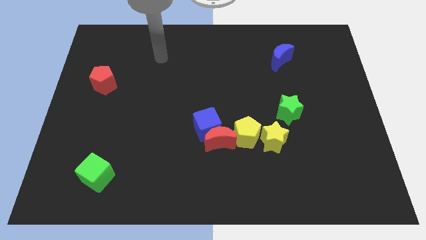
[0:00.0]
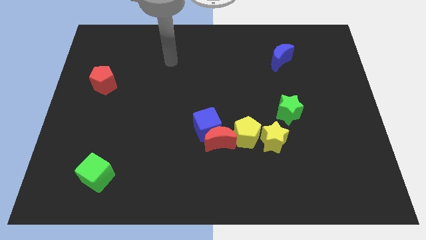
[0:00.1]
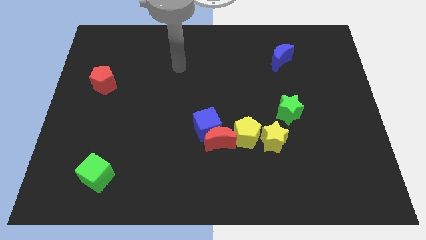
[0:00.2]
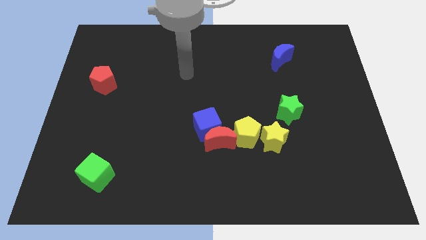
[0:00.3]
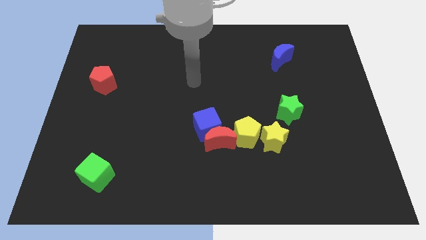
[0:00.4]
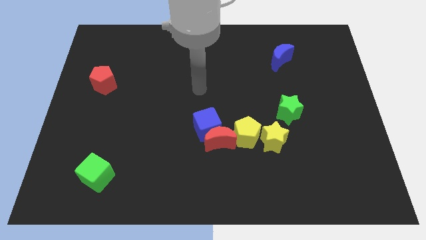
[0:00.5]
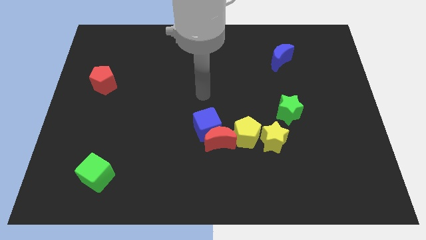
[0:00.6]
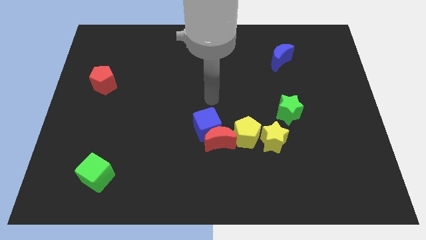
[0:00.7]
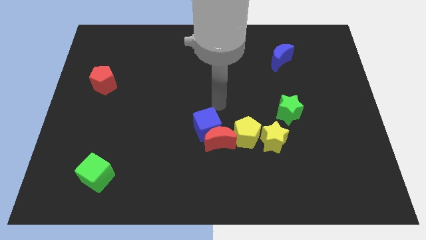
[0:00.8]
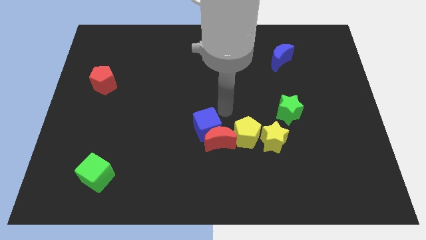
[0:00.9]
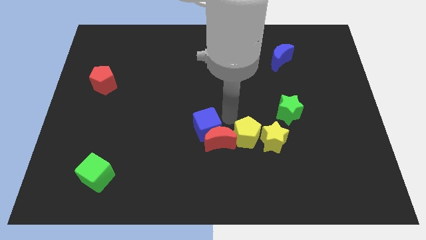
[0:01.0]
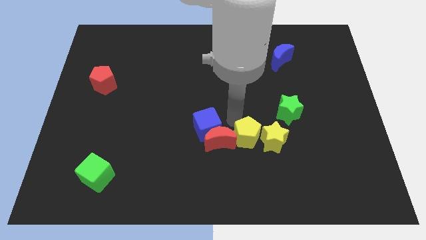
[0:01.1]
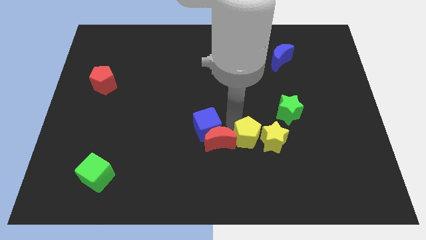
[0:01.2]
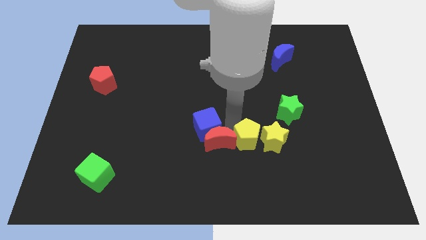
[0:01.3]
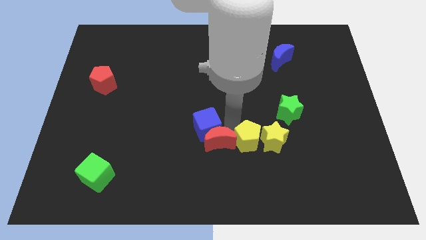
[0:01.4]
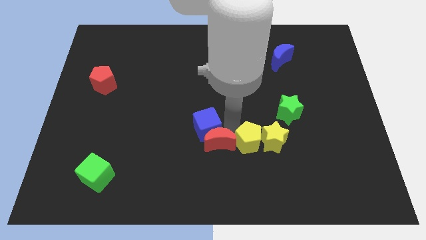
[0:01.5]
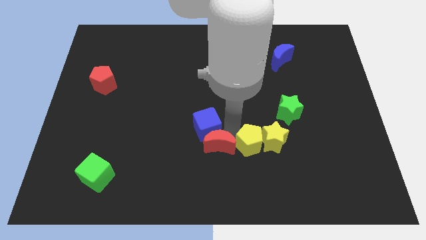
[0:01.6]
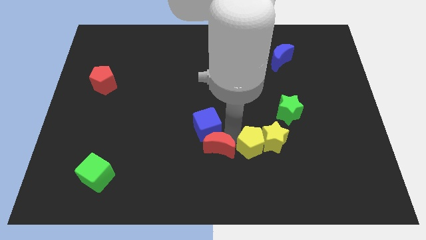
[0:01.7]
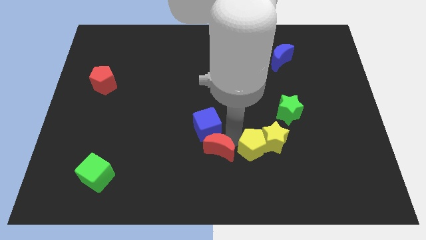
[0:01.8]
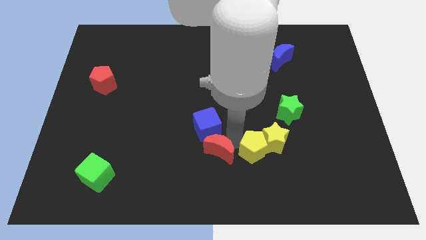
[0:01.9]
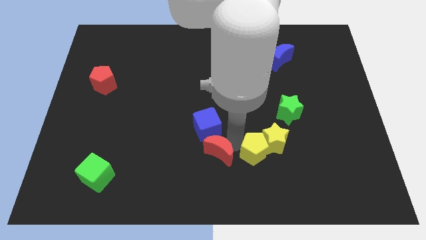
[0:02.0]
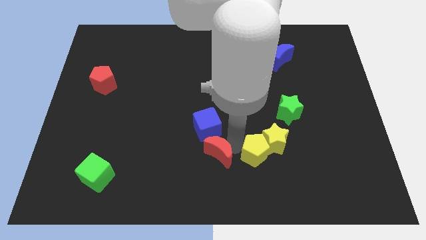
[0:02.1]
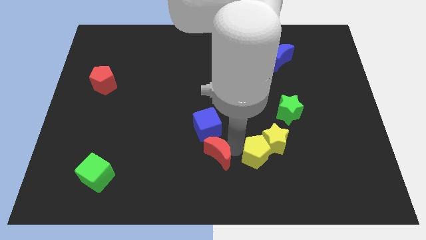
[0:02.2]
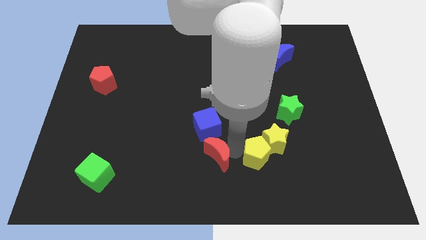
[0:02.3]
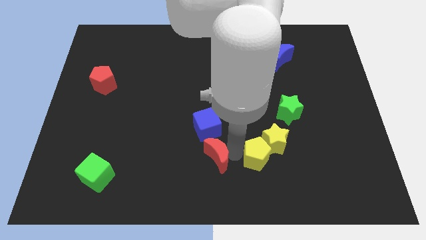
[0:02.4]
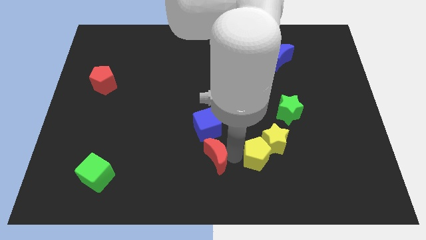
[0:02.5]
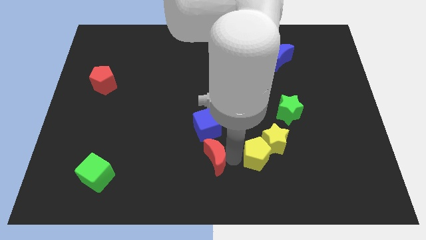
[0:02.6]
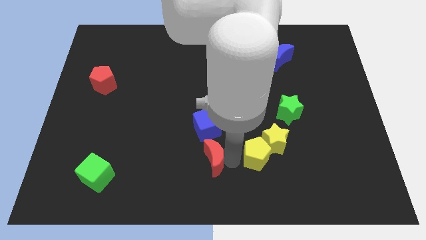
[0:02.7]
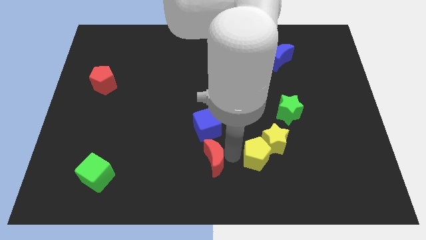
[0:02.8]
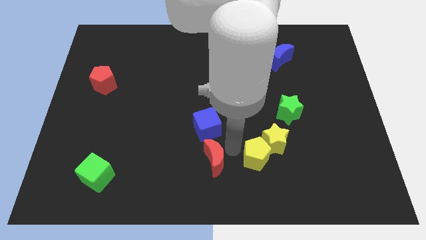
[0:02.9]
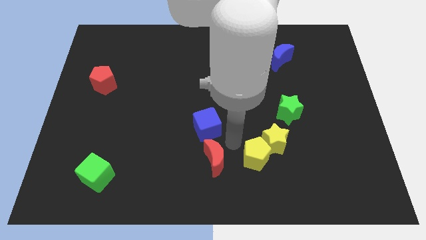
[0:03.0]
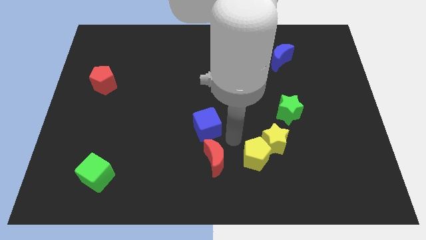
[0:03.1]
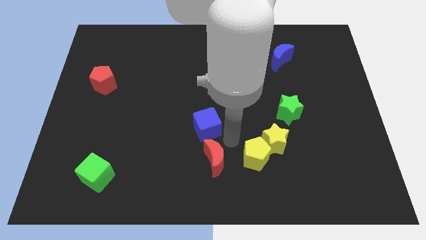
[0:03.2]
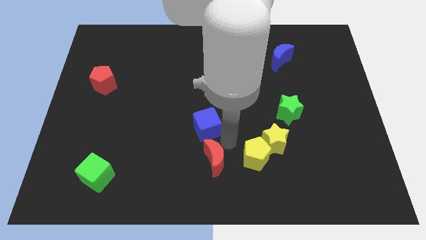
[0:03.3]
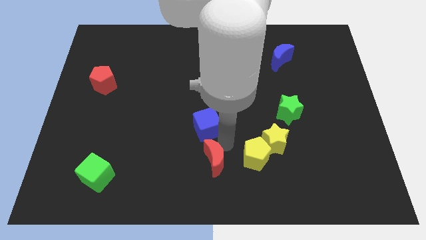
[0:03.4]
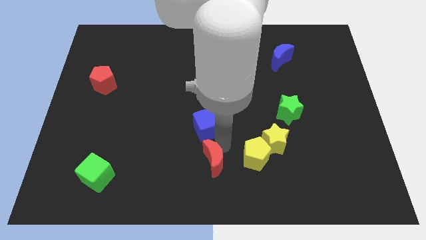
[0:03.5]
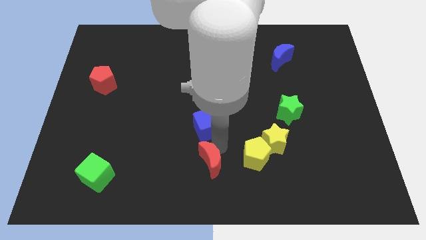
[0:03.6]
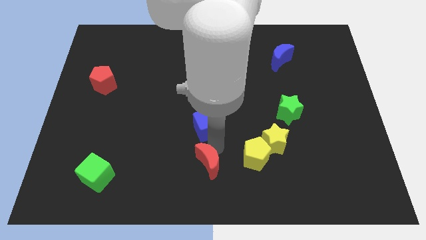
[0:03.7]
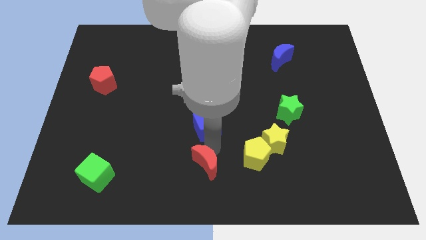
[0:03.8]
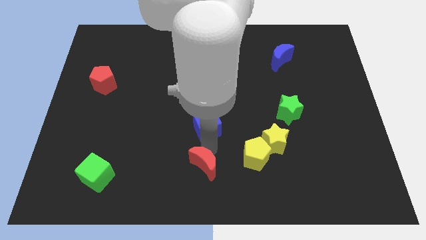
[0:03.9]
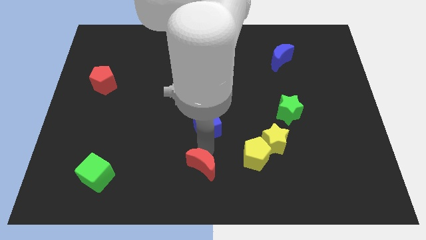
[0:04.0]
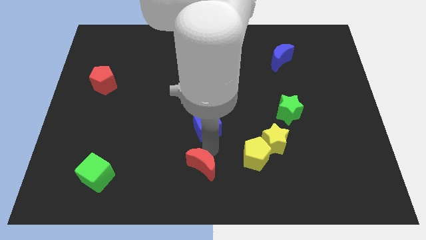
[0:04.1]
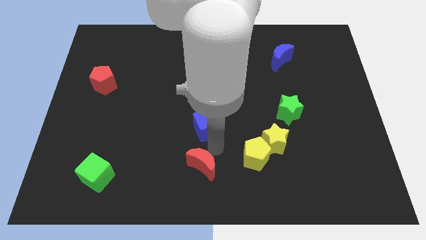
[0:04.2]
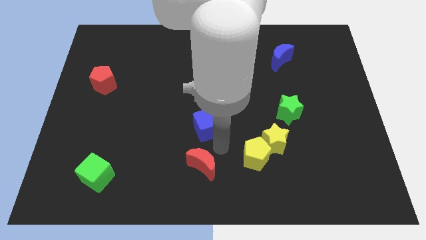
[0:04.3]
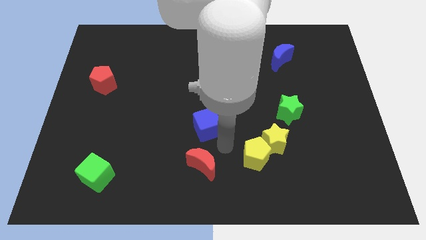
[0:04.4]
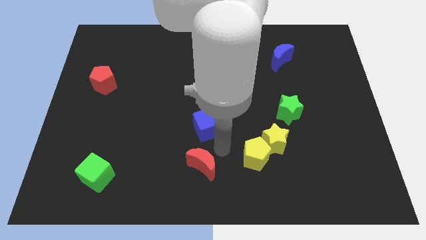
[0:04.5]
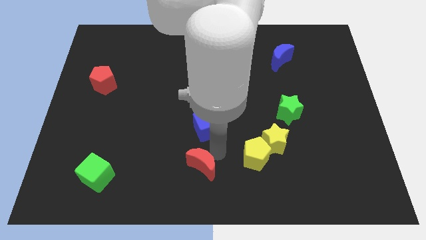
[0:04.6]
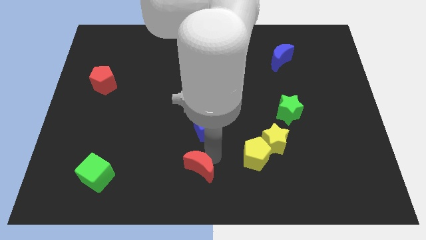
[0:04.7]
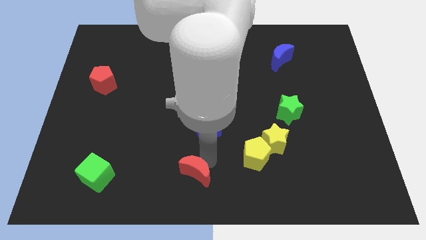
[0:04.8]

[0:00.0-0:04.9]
pull the red moon apart from the blue cube and yellow pentagon

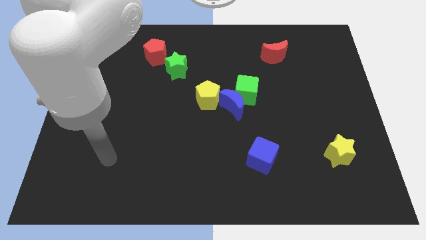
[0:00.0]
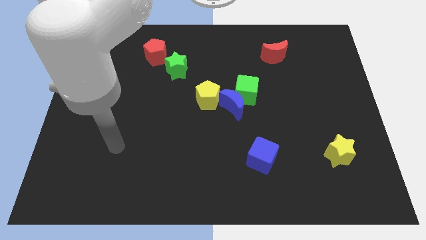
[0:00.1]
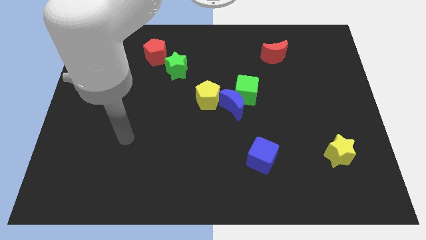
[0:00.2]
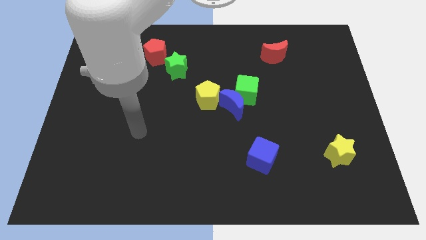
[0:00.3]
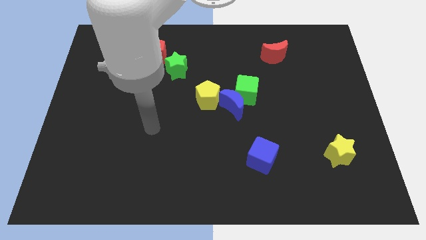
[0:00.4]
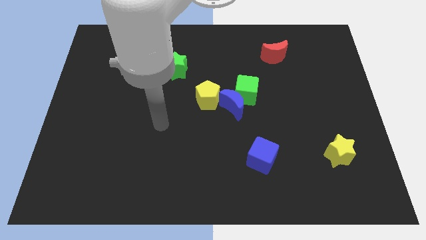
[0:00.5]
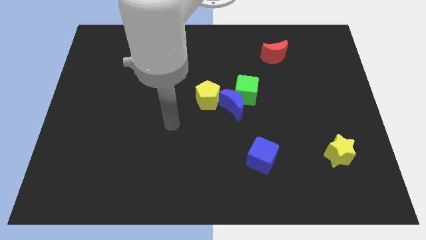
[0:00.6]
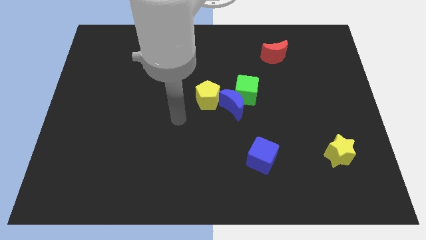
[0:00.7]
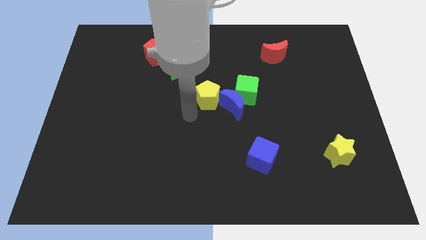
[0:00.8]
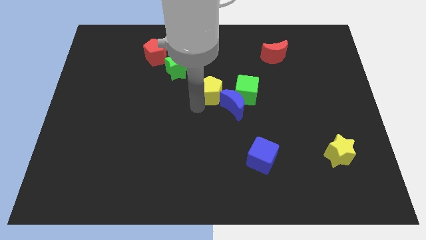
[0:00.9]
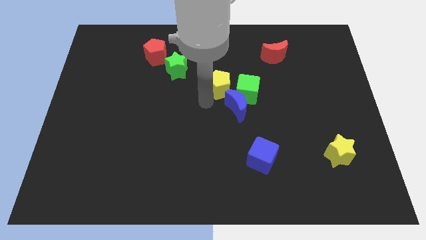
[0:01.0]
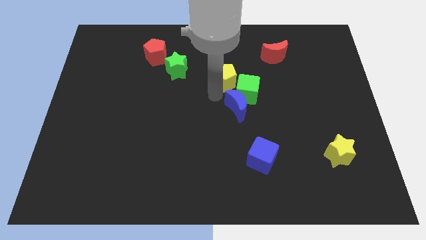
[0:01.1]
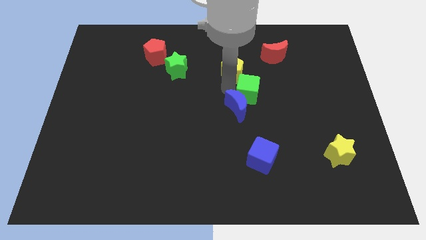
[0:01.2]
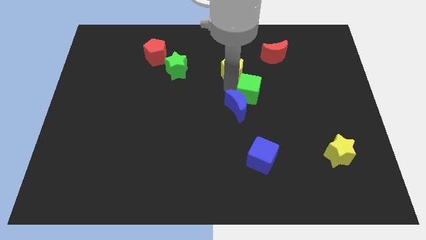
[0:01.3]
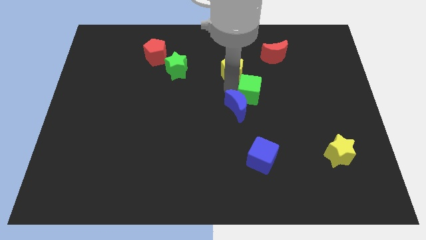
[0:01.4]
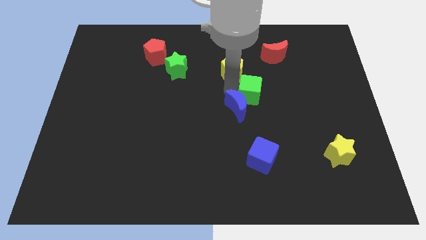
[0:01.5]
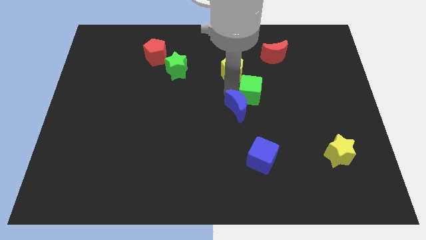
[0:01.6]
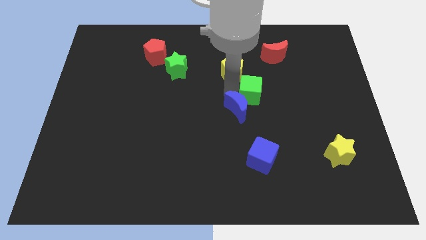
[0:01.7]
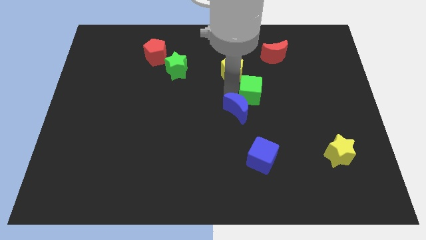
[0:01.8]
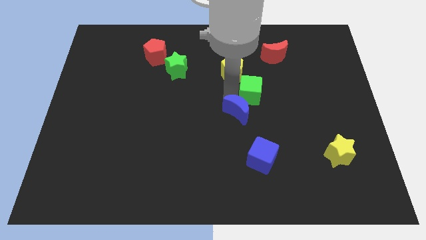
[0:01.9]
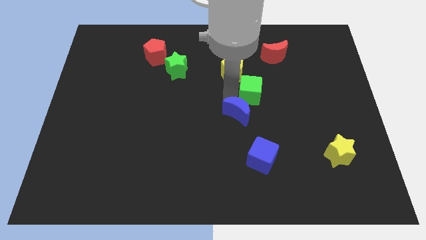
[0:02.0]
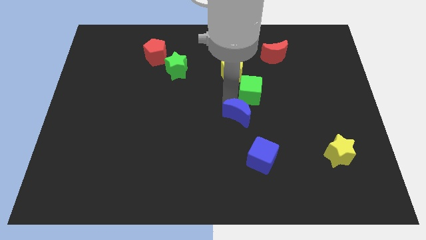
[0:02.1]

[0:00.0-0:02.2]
pull the blue moon apart from the green cube and yellow pentagon

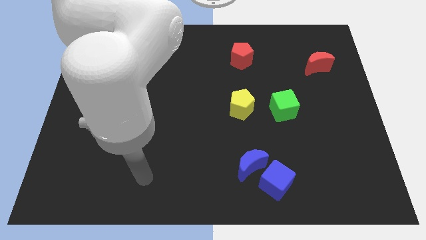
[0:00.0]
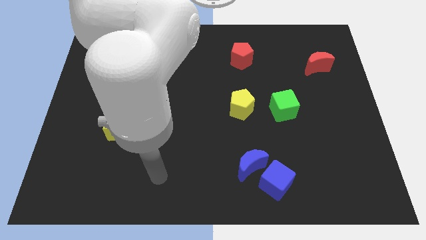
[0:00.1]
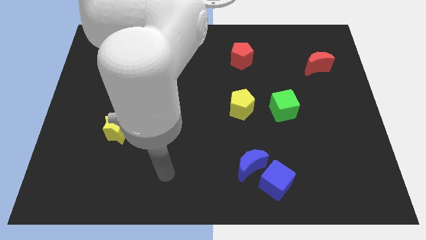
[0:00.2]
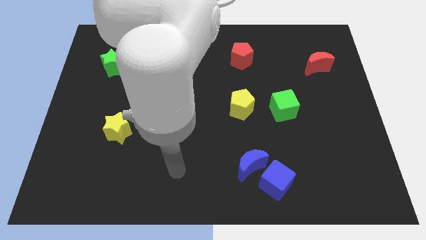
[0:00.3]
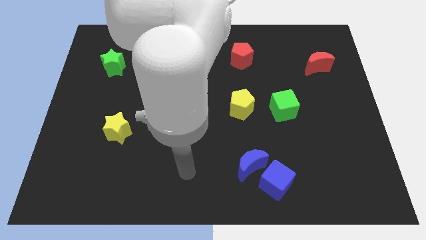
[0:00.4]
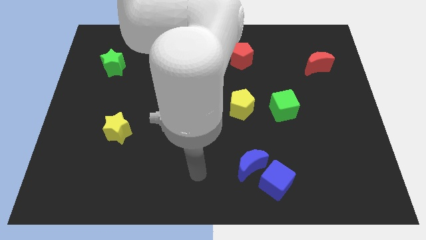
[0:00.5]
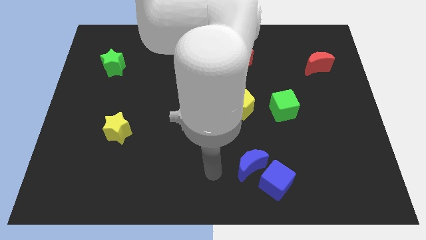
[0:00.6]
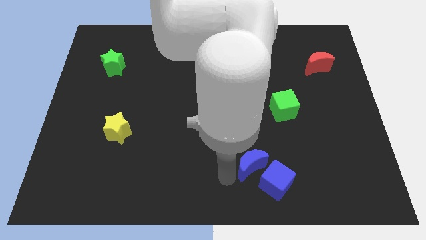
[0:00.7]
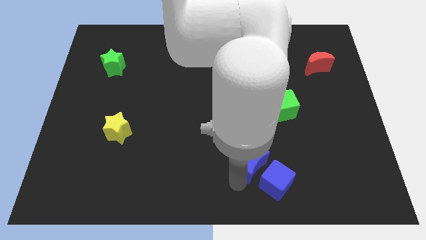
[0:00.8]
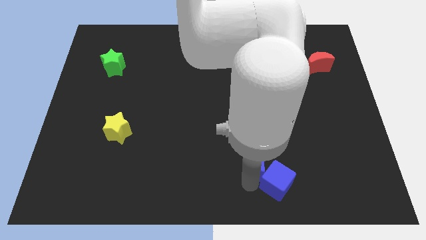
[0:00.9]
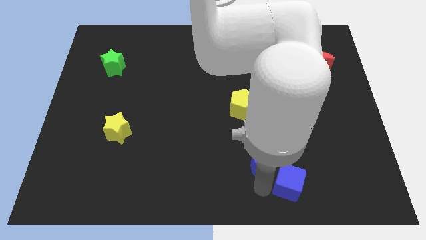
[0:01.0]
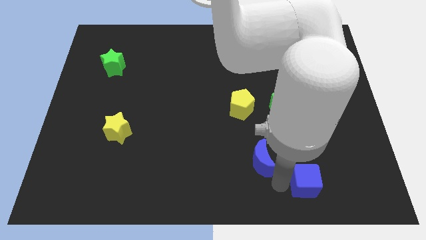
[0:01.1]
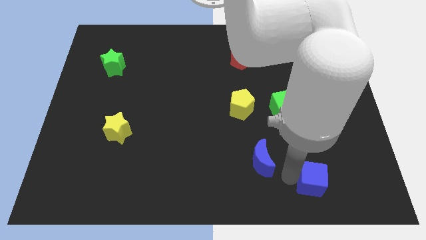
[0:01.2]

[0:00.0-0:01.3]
pull the blue moon apart from the blue cube

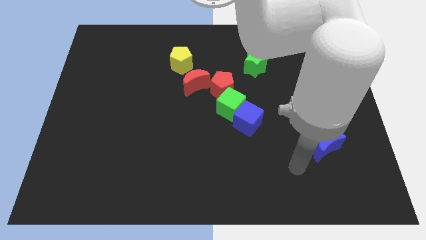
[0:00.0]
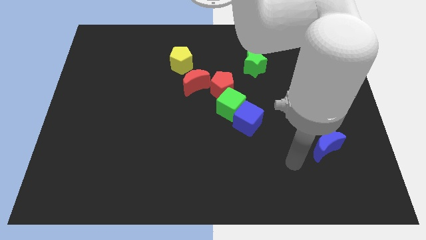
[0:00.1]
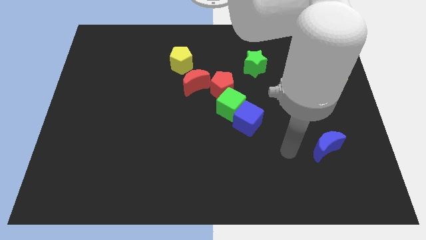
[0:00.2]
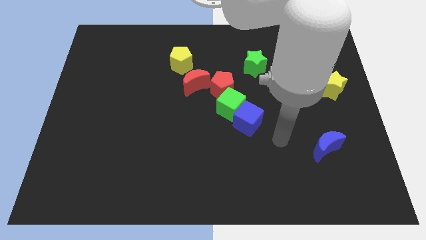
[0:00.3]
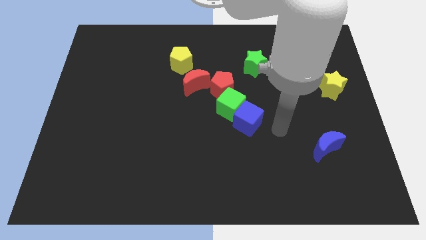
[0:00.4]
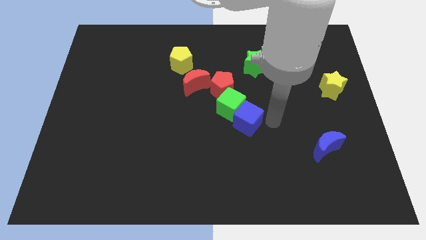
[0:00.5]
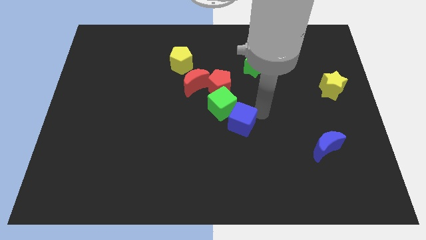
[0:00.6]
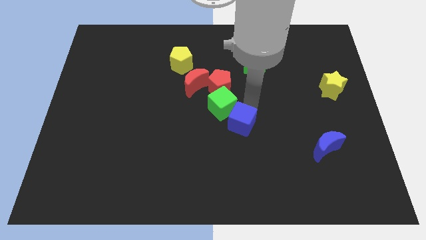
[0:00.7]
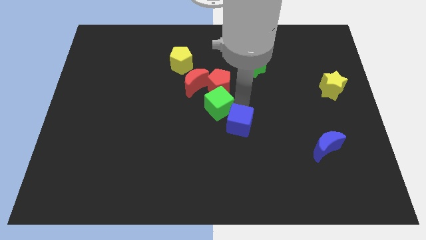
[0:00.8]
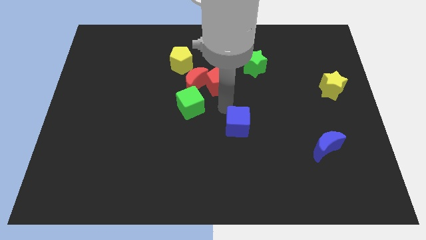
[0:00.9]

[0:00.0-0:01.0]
pull the blue cube apart from the green cube

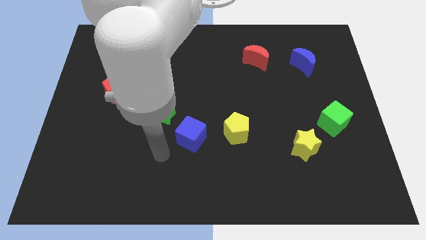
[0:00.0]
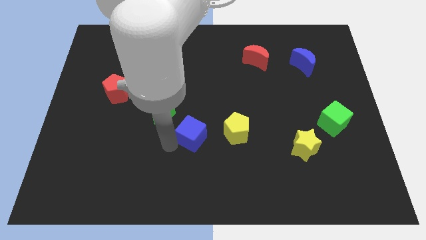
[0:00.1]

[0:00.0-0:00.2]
separate the green star from the blue cube
